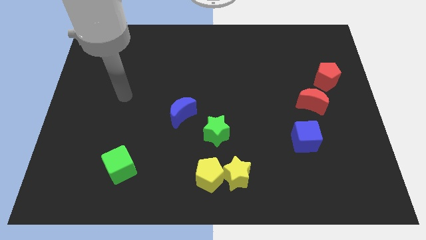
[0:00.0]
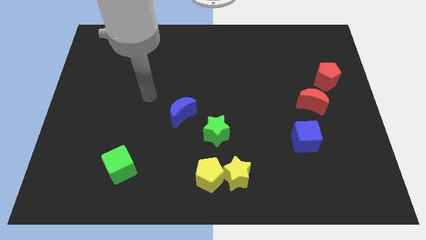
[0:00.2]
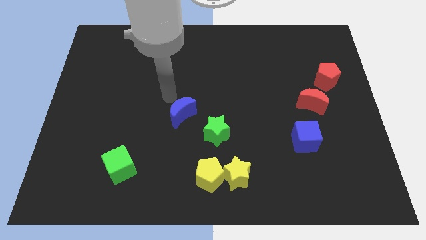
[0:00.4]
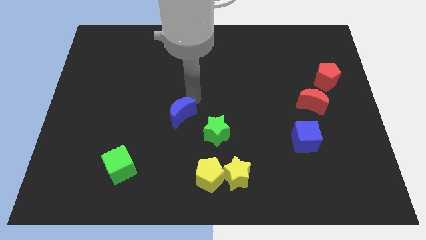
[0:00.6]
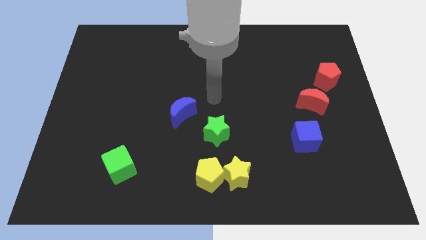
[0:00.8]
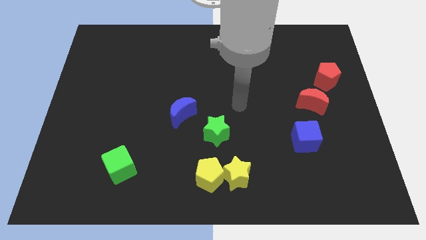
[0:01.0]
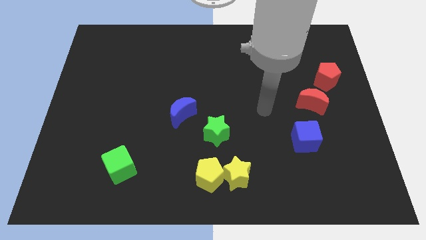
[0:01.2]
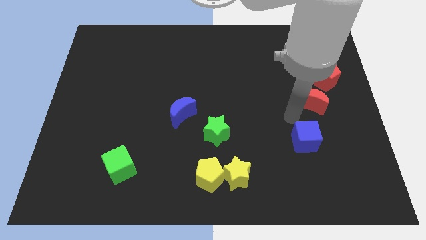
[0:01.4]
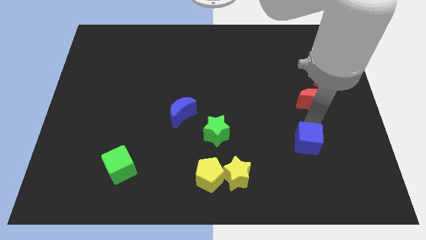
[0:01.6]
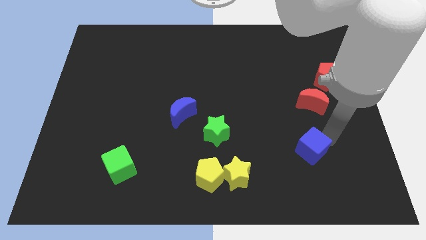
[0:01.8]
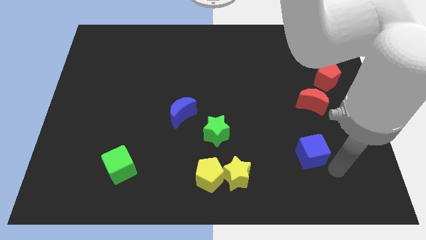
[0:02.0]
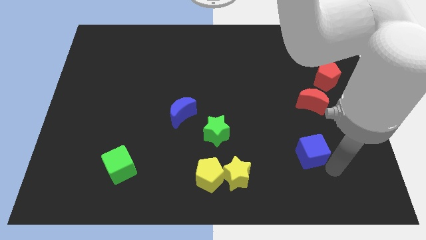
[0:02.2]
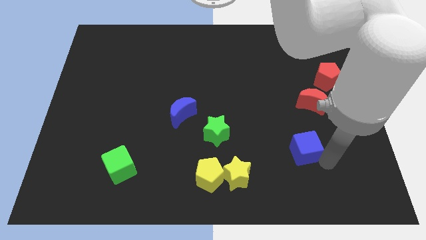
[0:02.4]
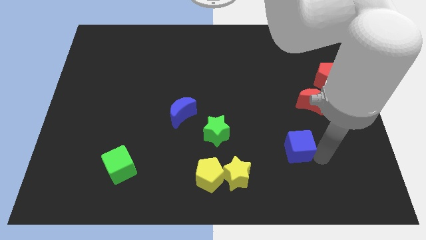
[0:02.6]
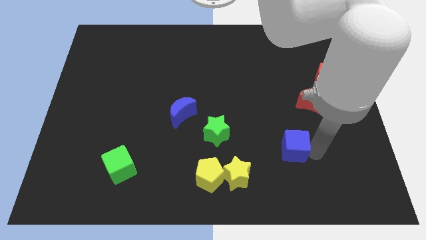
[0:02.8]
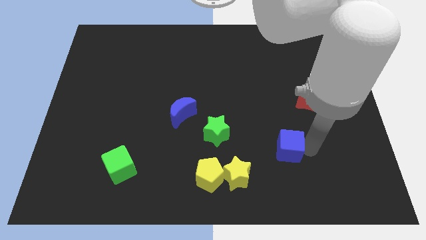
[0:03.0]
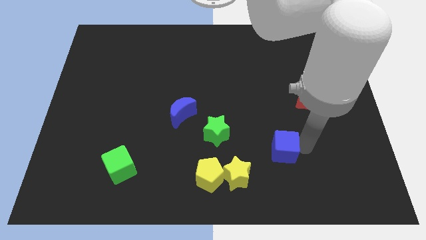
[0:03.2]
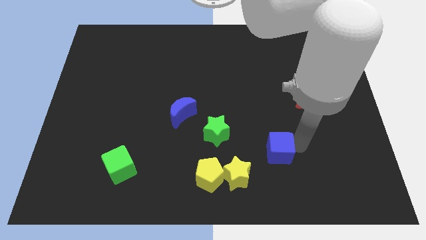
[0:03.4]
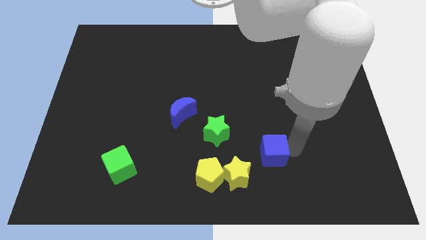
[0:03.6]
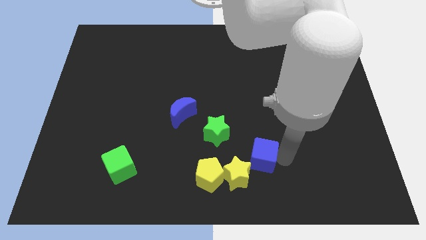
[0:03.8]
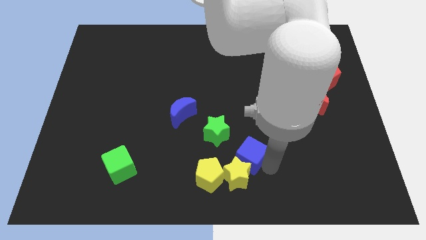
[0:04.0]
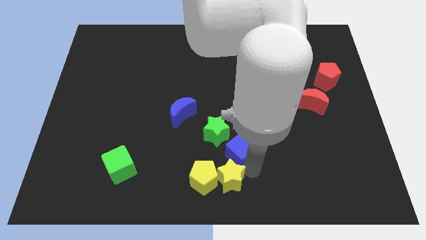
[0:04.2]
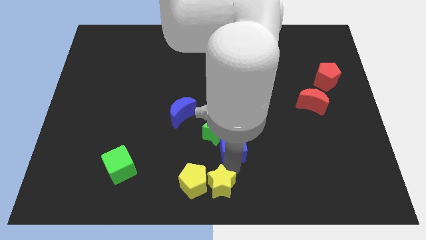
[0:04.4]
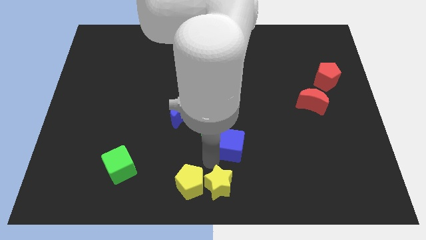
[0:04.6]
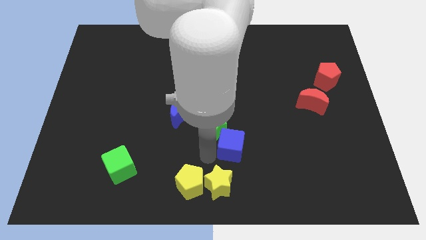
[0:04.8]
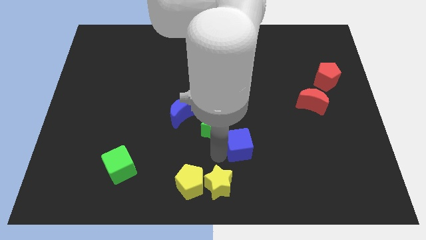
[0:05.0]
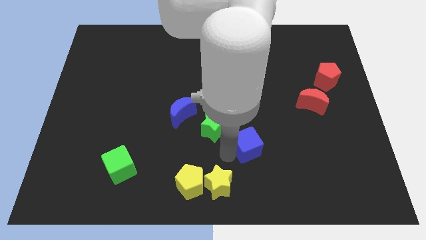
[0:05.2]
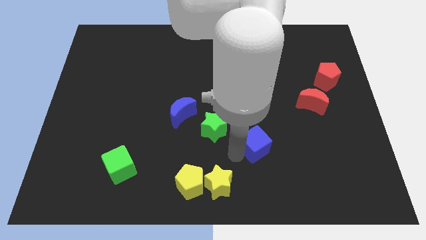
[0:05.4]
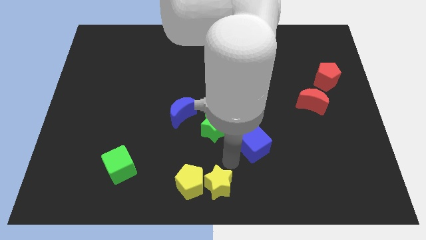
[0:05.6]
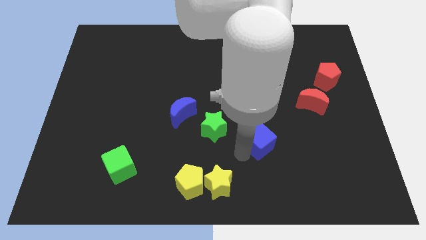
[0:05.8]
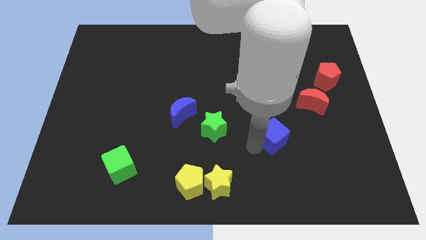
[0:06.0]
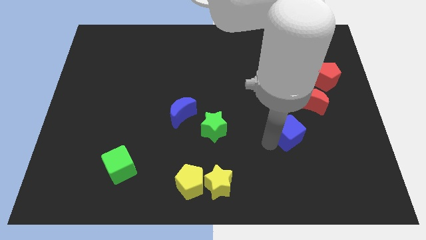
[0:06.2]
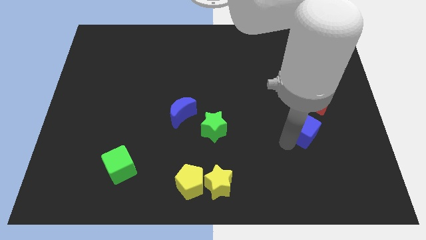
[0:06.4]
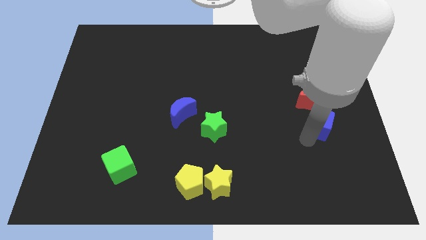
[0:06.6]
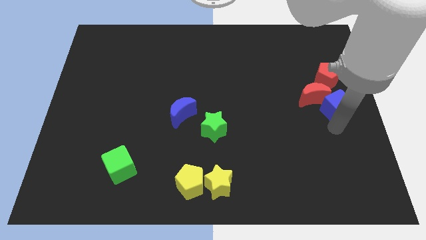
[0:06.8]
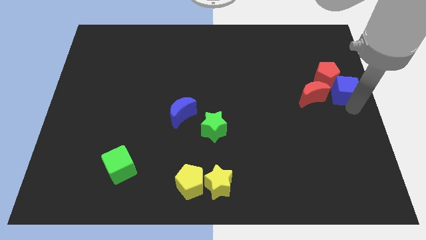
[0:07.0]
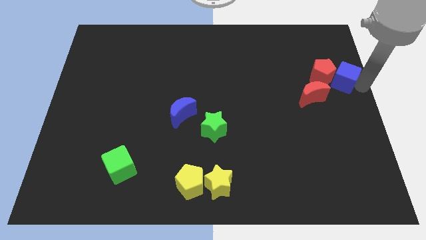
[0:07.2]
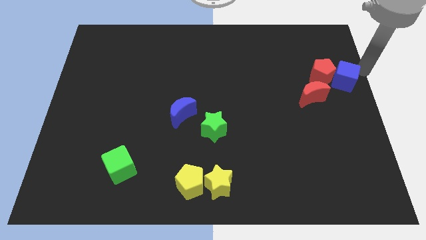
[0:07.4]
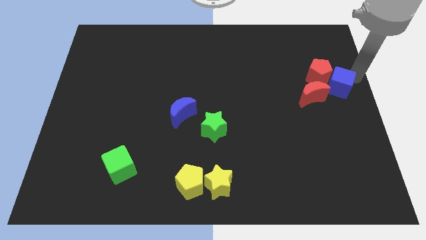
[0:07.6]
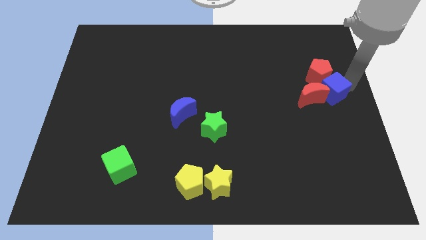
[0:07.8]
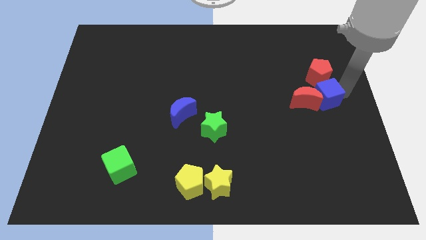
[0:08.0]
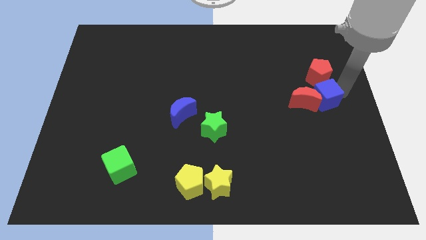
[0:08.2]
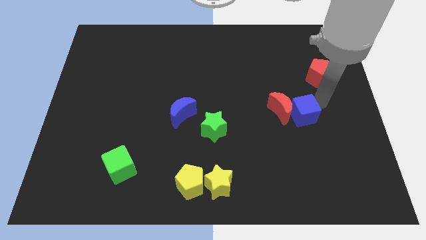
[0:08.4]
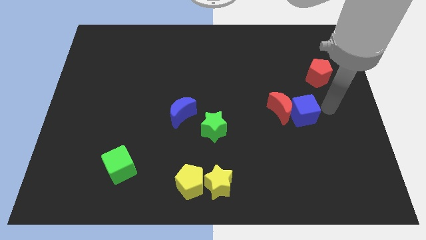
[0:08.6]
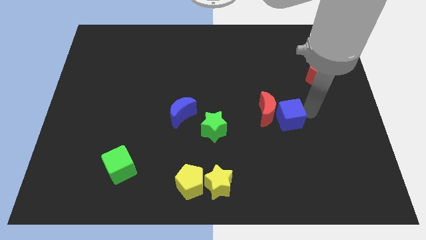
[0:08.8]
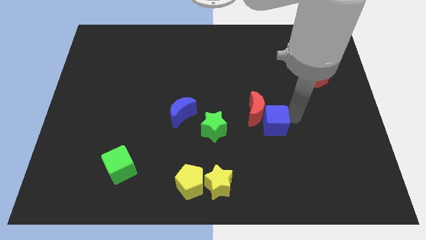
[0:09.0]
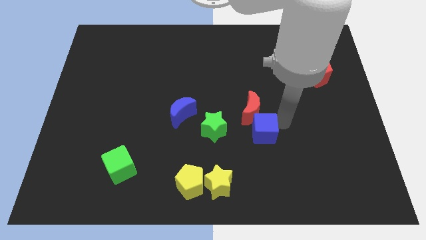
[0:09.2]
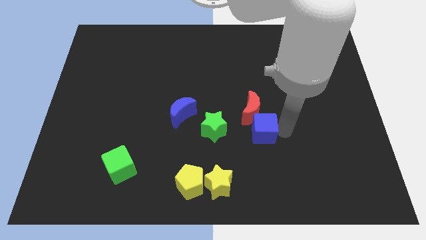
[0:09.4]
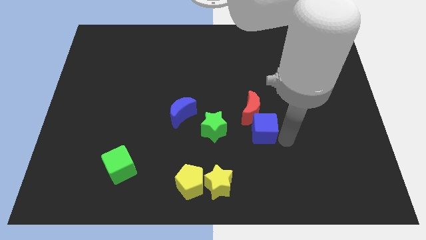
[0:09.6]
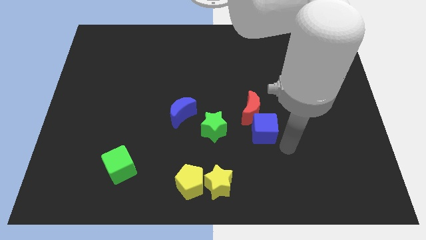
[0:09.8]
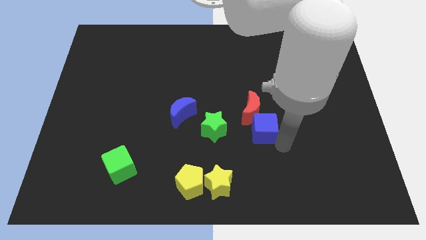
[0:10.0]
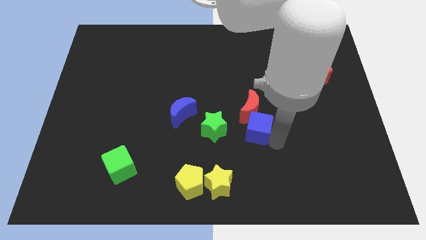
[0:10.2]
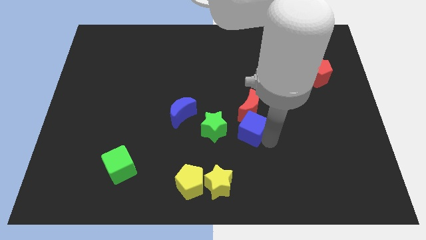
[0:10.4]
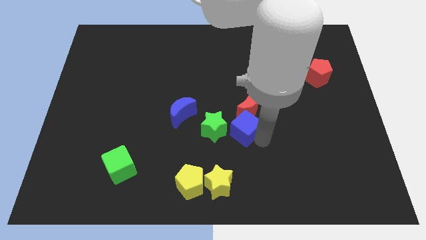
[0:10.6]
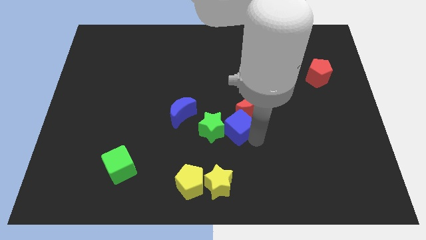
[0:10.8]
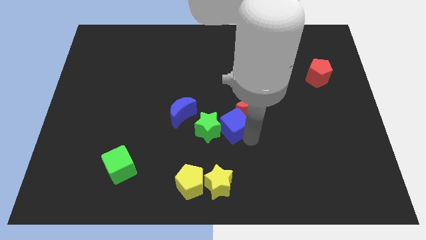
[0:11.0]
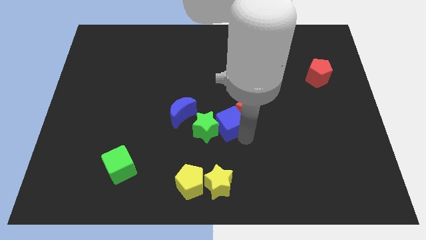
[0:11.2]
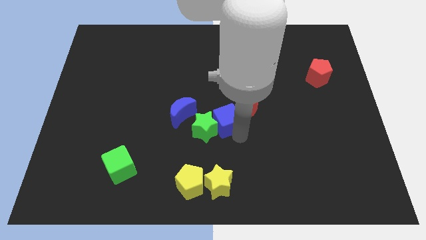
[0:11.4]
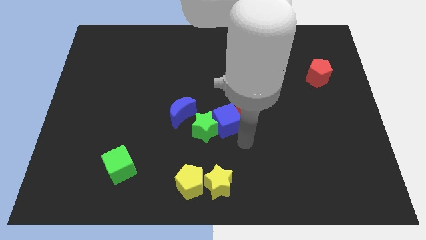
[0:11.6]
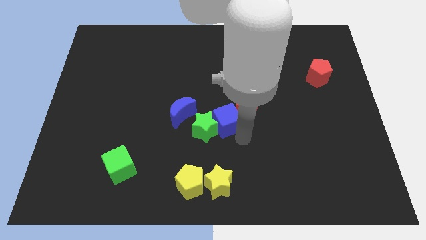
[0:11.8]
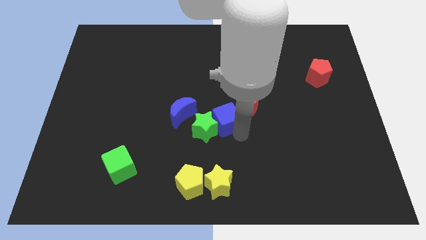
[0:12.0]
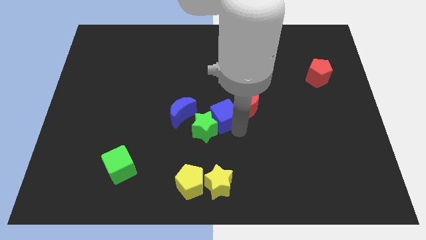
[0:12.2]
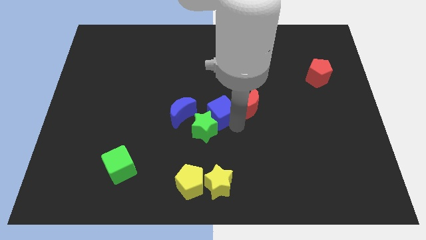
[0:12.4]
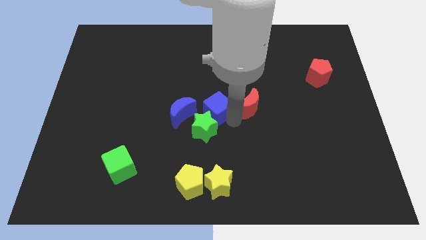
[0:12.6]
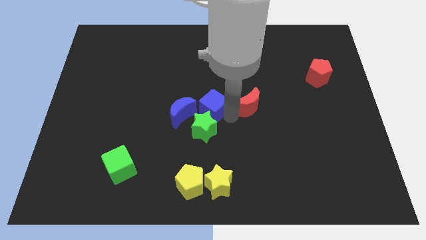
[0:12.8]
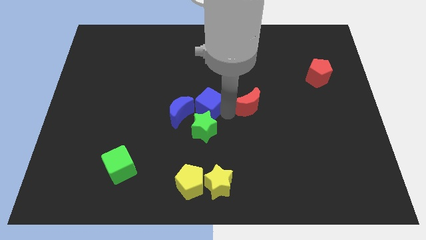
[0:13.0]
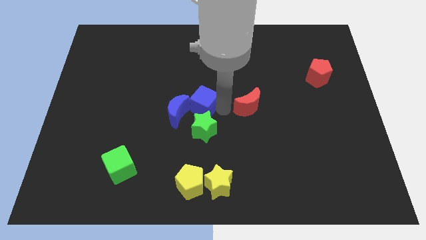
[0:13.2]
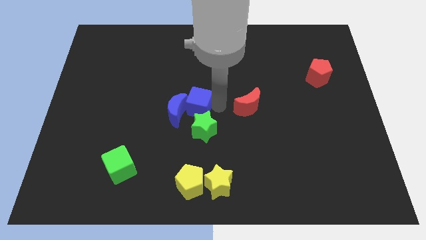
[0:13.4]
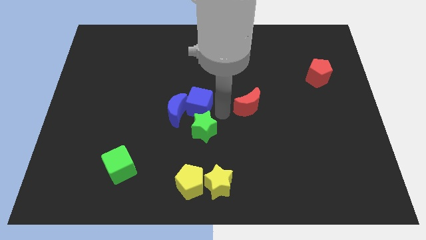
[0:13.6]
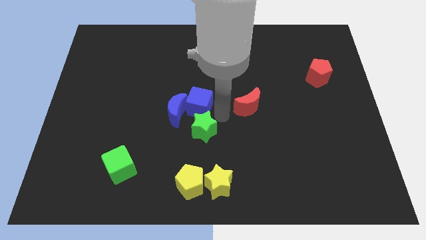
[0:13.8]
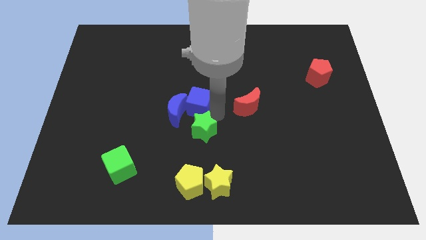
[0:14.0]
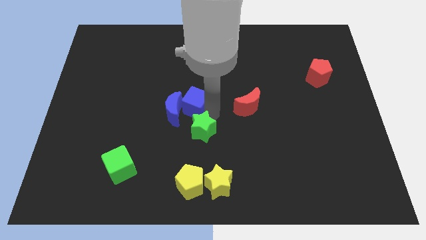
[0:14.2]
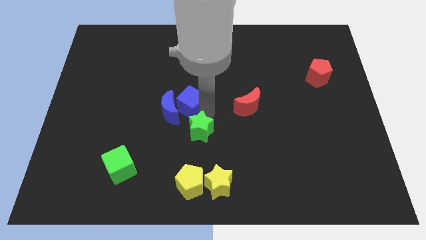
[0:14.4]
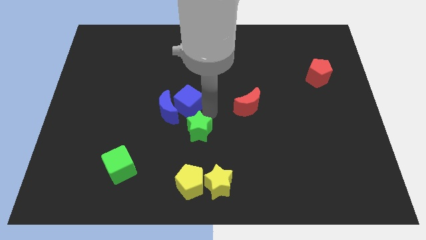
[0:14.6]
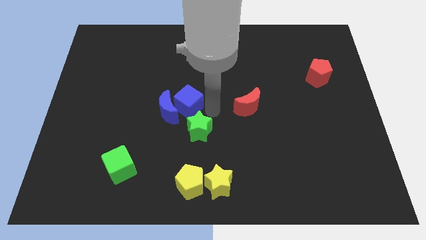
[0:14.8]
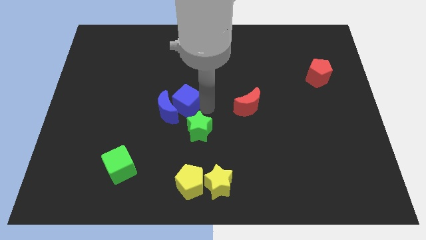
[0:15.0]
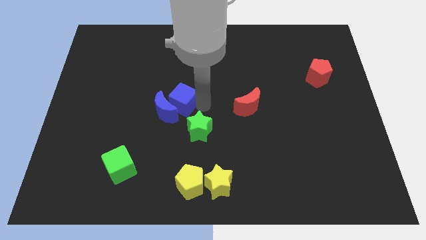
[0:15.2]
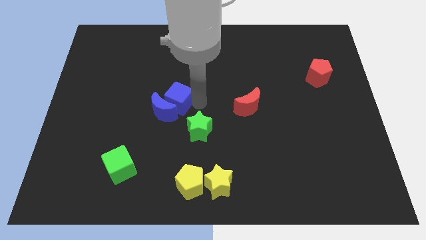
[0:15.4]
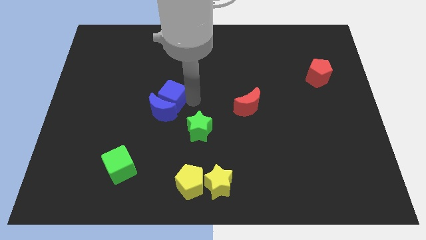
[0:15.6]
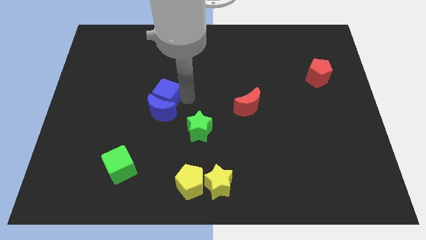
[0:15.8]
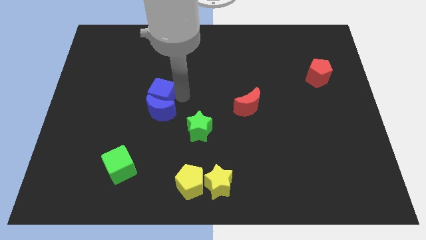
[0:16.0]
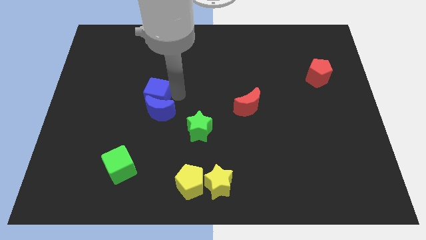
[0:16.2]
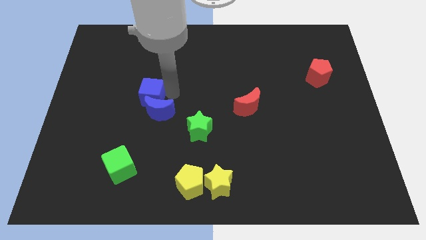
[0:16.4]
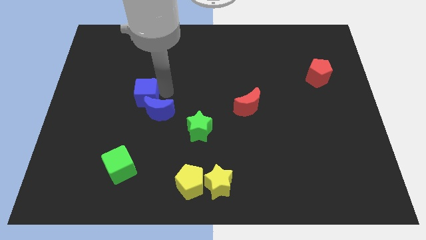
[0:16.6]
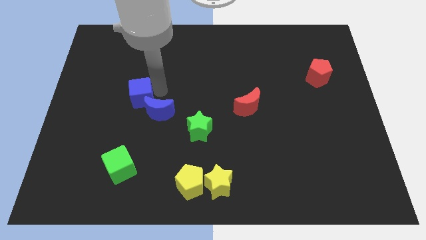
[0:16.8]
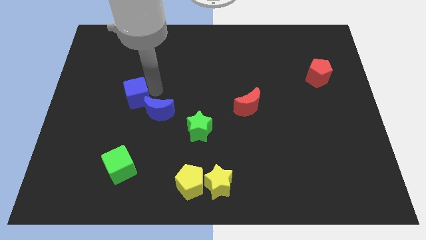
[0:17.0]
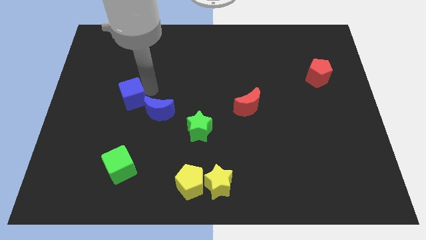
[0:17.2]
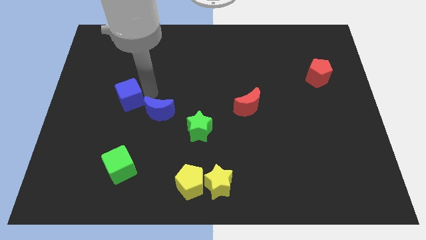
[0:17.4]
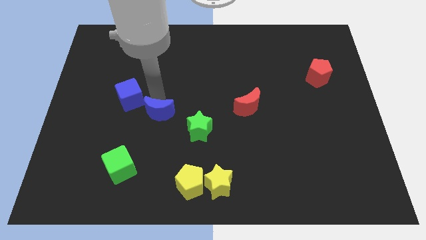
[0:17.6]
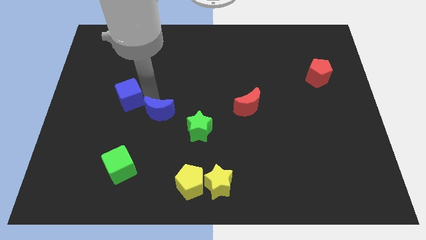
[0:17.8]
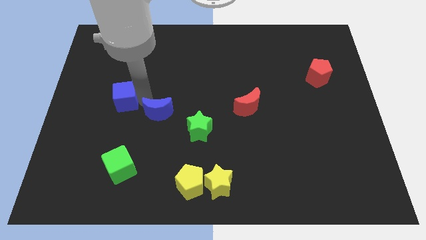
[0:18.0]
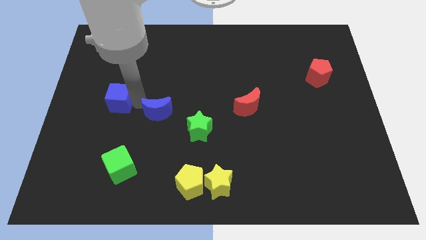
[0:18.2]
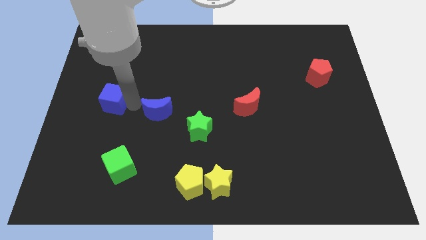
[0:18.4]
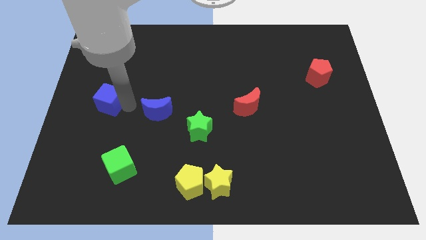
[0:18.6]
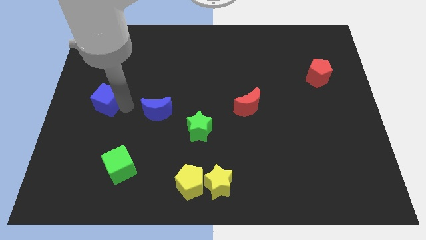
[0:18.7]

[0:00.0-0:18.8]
slide the blue cube to the center left
